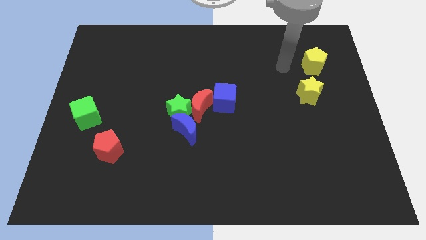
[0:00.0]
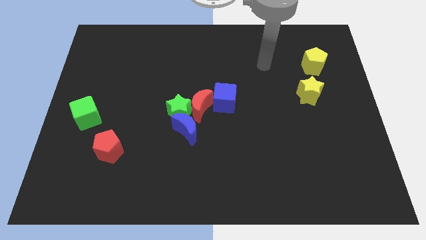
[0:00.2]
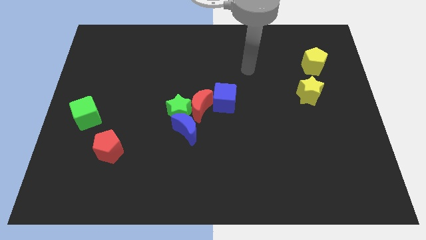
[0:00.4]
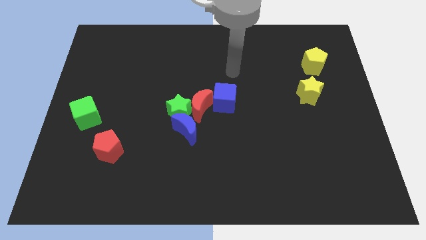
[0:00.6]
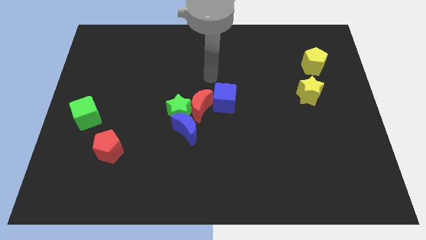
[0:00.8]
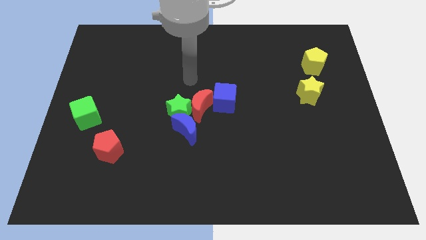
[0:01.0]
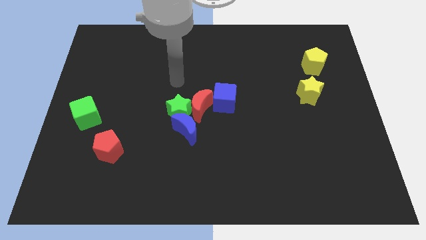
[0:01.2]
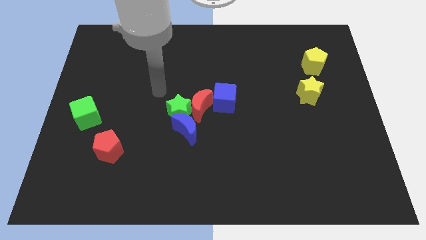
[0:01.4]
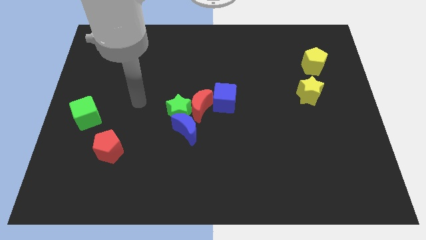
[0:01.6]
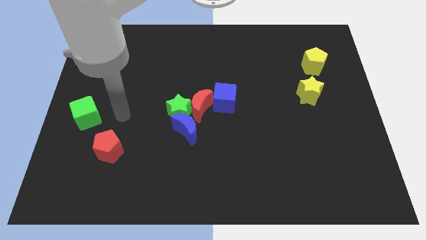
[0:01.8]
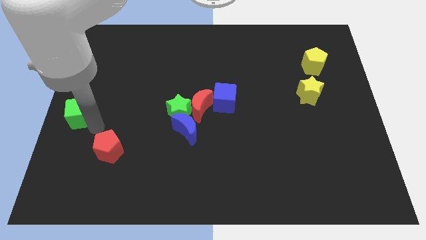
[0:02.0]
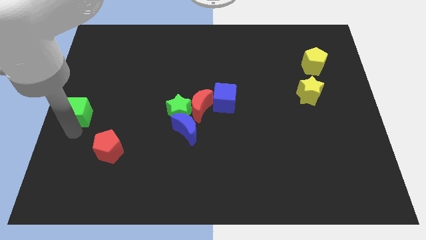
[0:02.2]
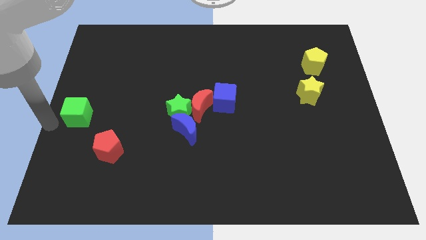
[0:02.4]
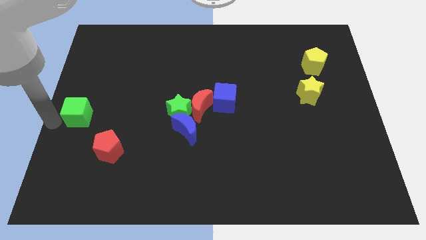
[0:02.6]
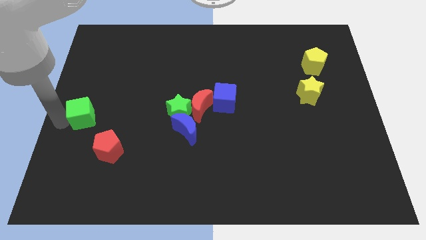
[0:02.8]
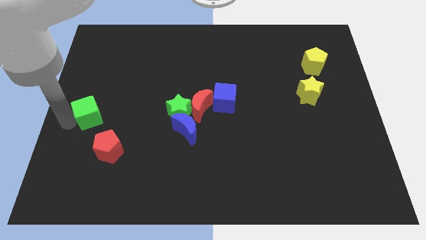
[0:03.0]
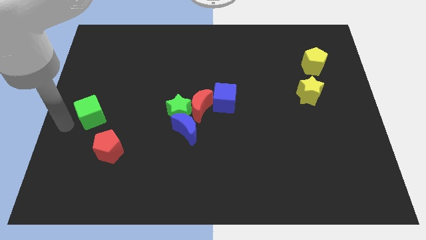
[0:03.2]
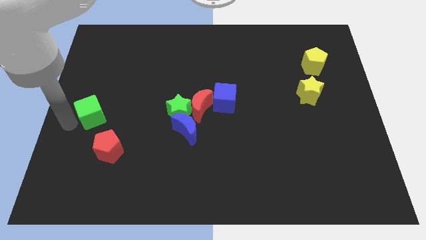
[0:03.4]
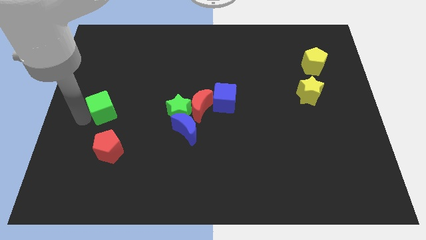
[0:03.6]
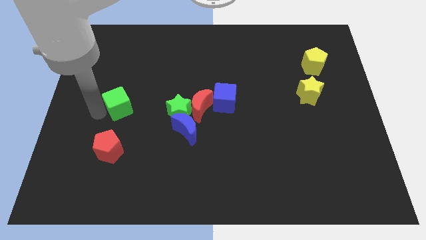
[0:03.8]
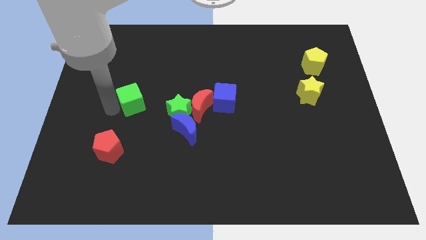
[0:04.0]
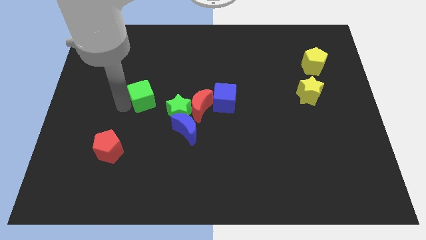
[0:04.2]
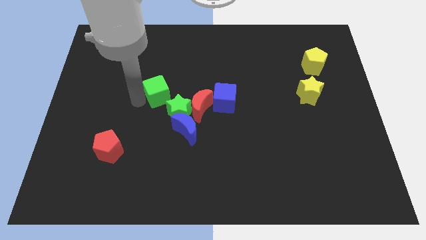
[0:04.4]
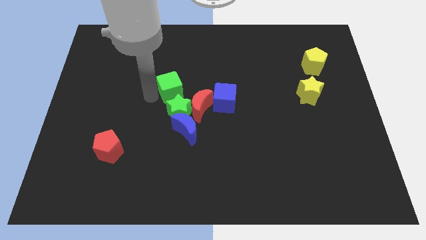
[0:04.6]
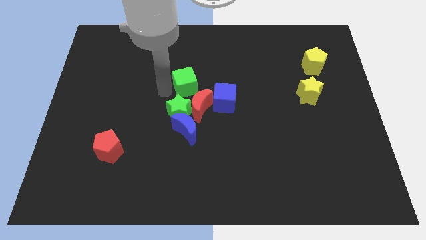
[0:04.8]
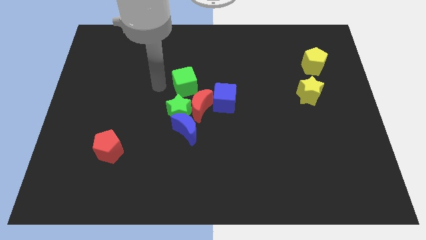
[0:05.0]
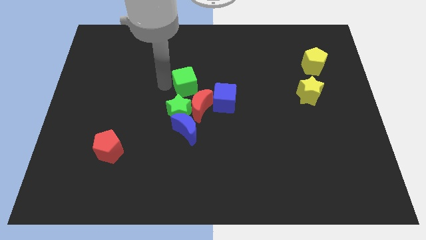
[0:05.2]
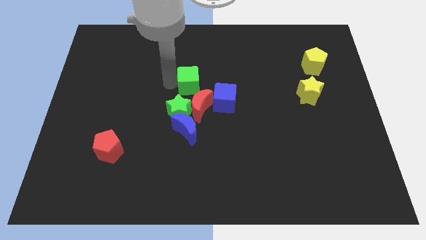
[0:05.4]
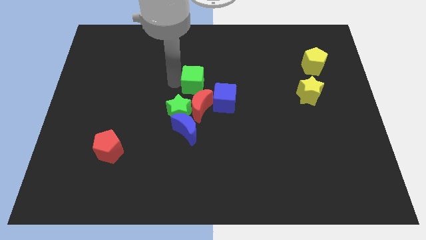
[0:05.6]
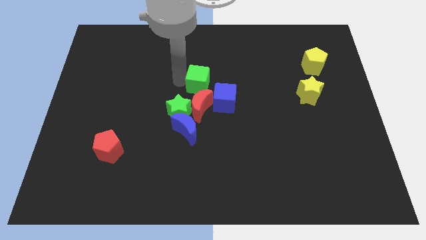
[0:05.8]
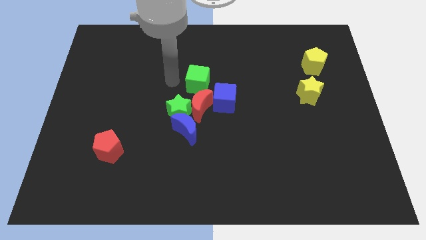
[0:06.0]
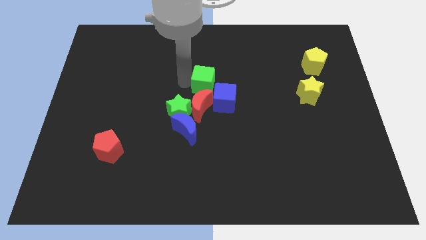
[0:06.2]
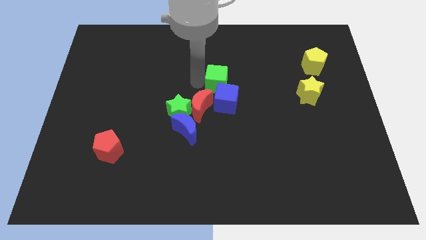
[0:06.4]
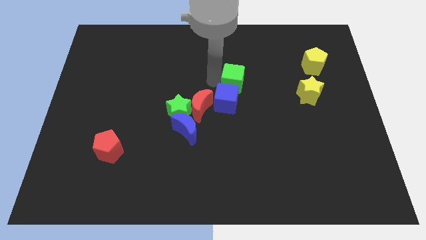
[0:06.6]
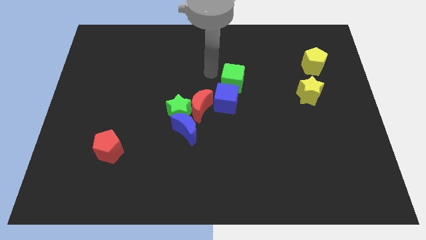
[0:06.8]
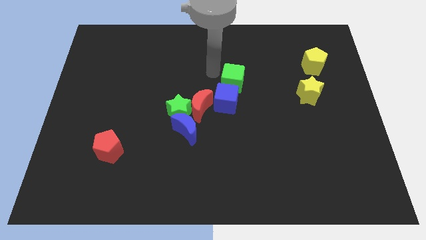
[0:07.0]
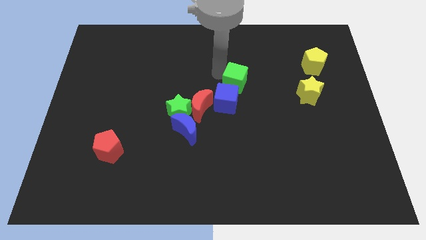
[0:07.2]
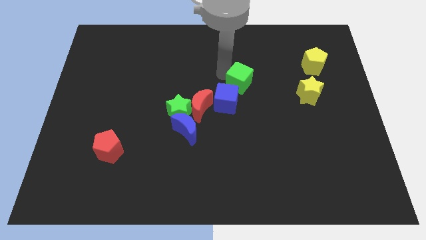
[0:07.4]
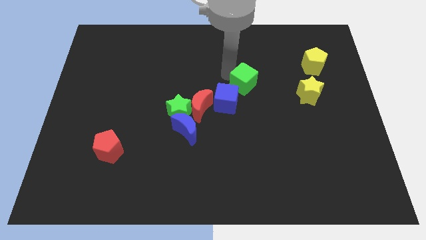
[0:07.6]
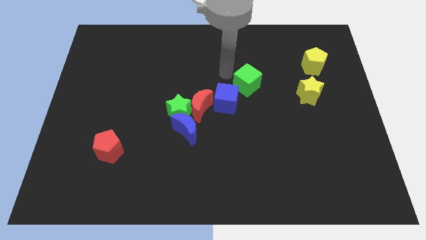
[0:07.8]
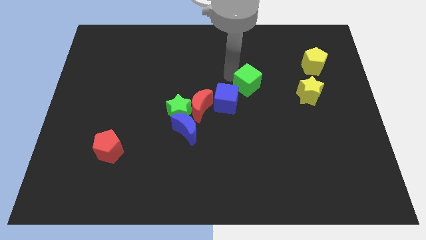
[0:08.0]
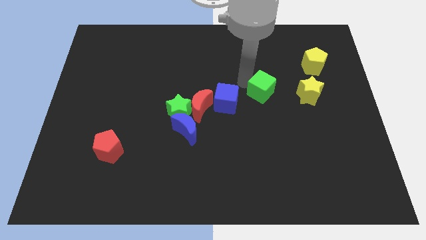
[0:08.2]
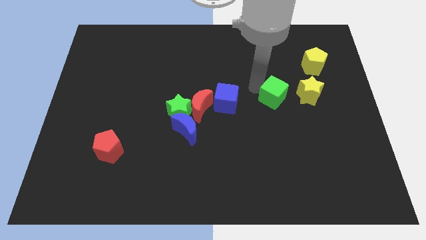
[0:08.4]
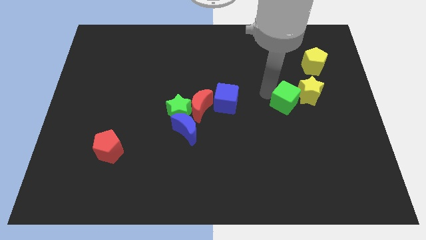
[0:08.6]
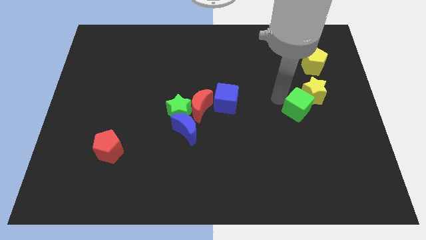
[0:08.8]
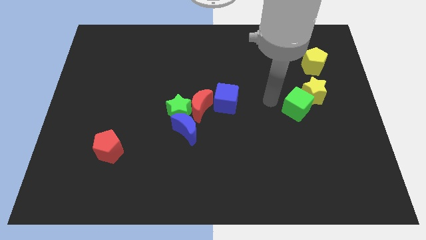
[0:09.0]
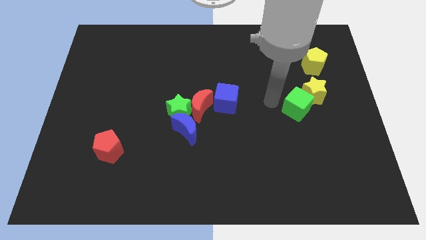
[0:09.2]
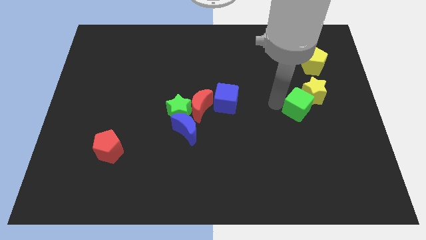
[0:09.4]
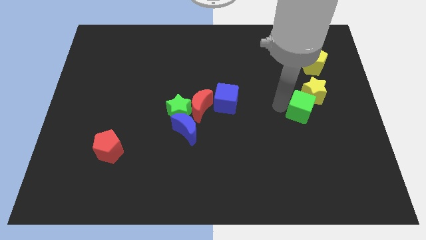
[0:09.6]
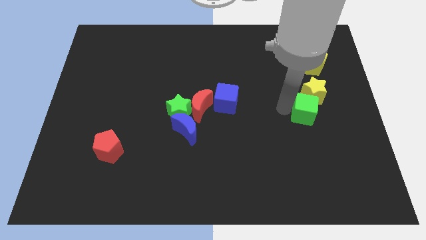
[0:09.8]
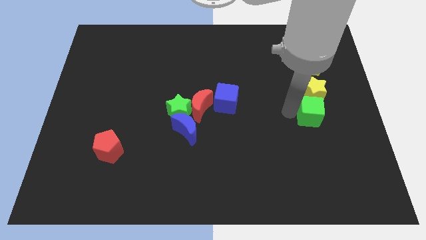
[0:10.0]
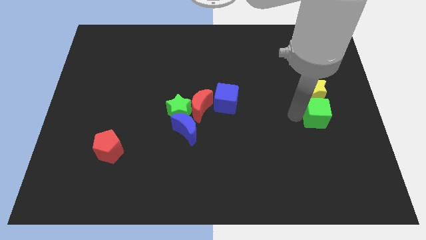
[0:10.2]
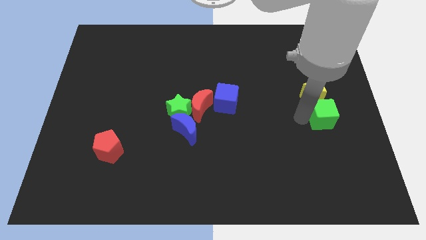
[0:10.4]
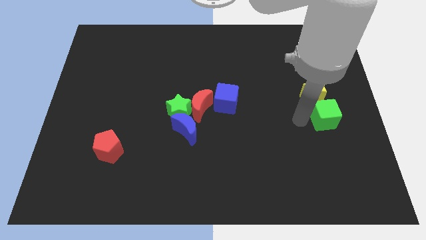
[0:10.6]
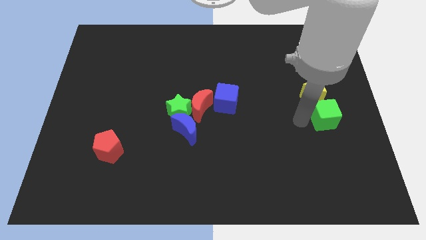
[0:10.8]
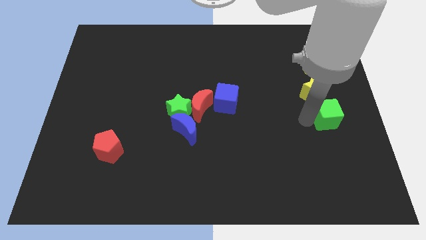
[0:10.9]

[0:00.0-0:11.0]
push the green cube to the right side

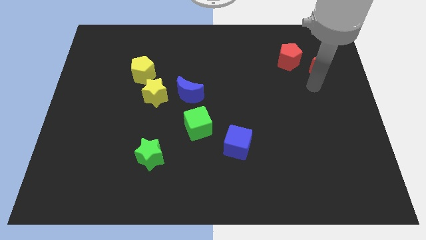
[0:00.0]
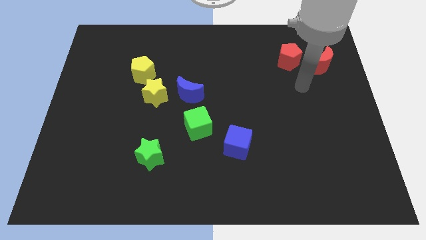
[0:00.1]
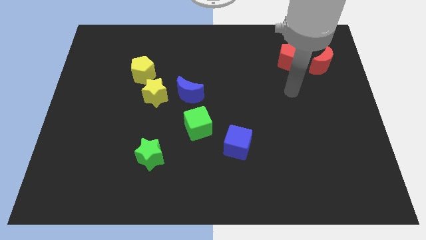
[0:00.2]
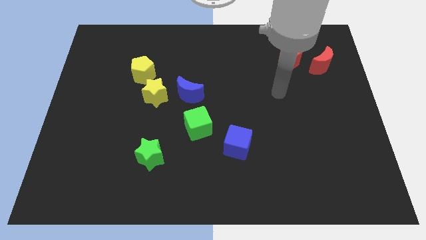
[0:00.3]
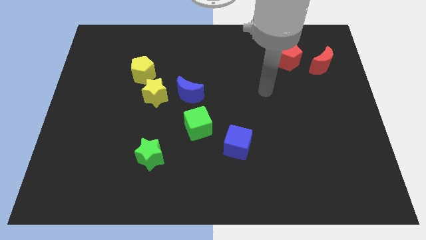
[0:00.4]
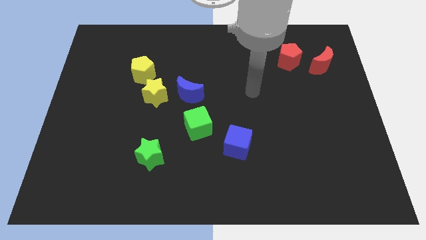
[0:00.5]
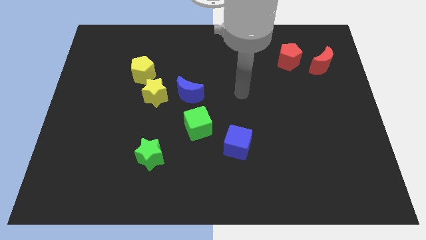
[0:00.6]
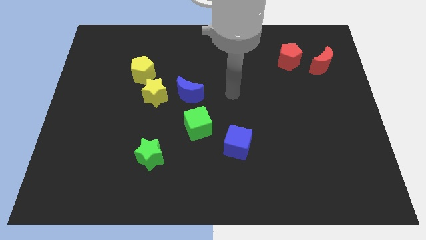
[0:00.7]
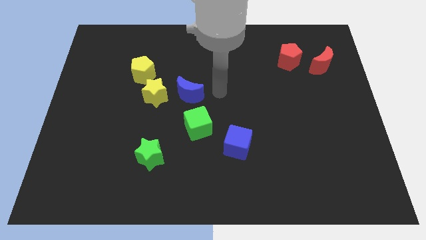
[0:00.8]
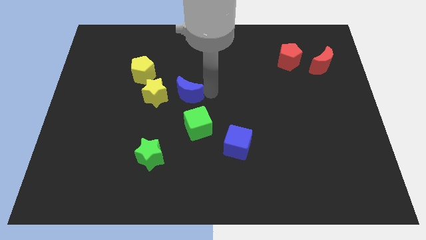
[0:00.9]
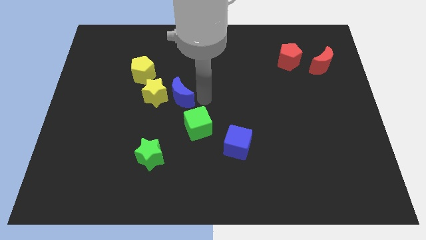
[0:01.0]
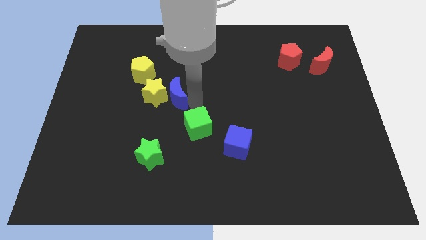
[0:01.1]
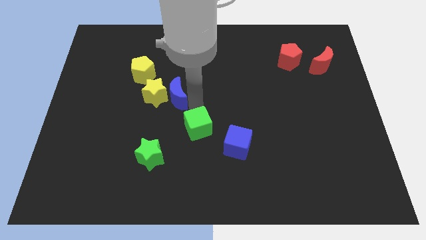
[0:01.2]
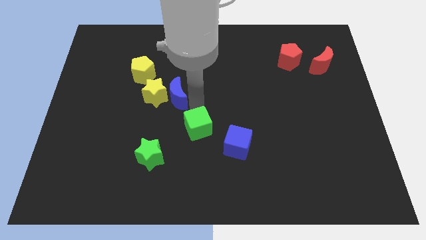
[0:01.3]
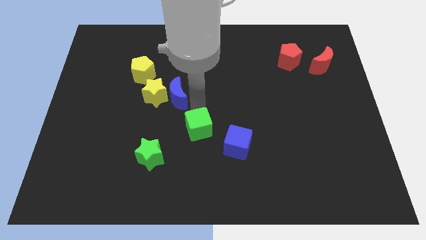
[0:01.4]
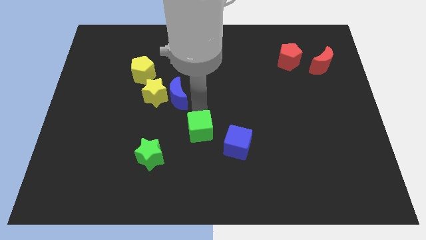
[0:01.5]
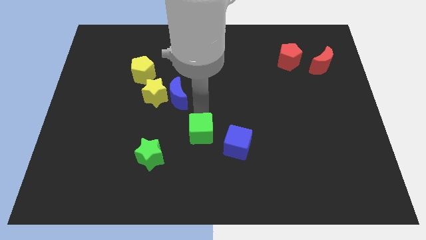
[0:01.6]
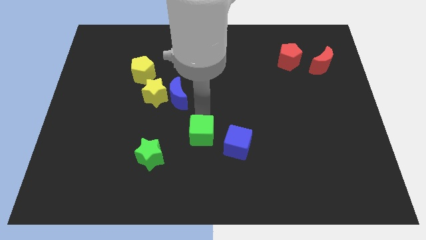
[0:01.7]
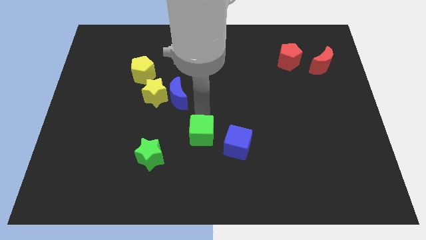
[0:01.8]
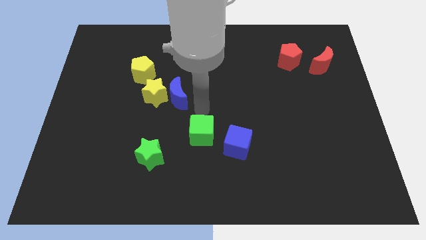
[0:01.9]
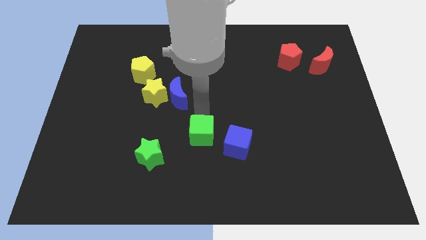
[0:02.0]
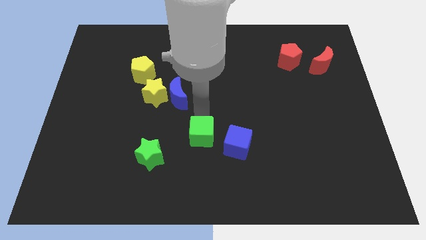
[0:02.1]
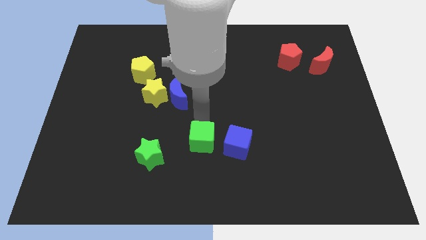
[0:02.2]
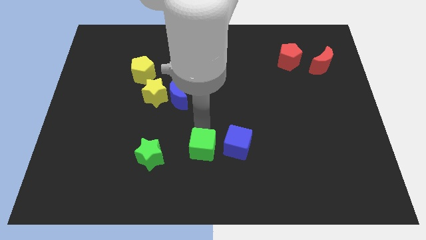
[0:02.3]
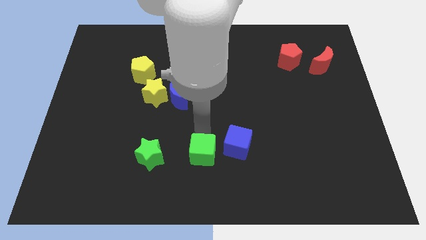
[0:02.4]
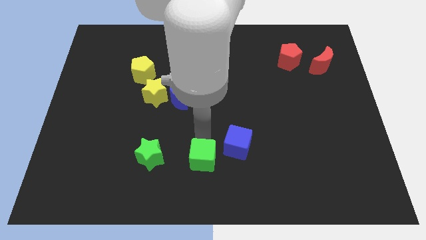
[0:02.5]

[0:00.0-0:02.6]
push the green cube to the bottom
